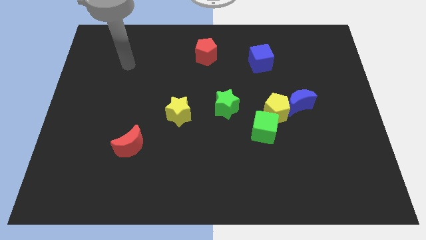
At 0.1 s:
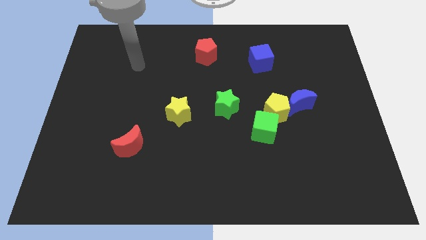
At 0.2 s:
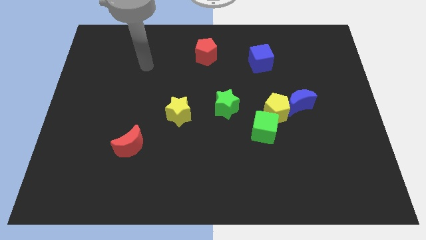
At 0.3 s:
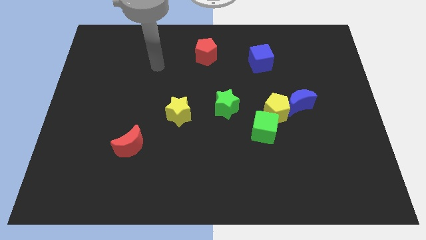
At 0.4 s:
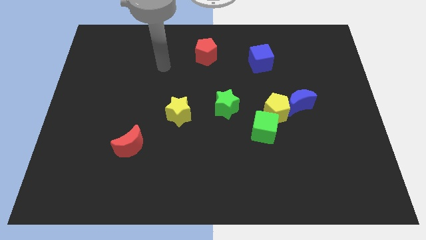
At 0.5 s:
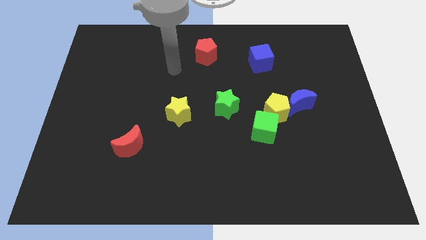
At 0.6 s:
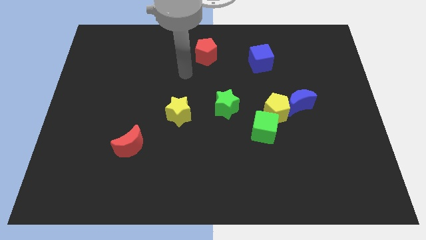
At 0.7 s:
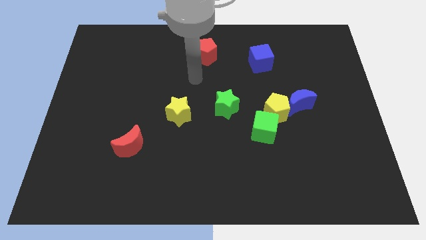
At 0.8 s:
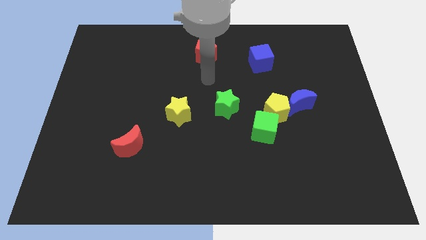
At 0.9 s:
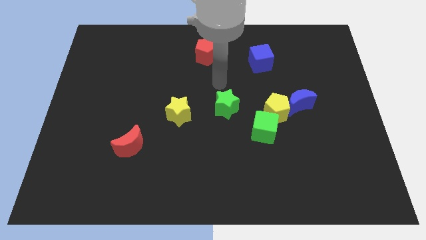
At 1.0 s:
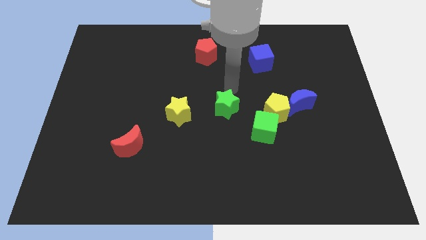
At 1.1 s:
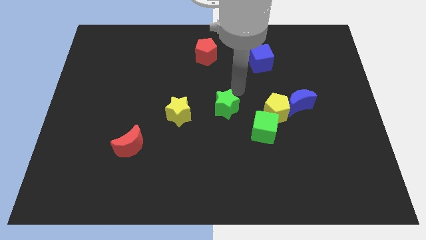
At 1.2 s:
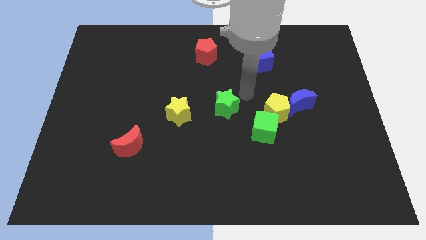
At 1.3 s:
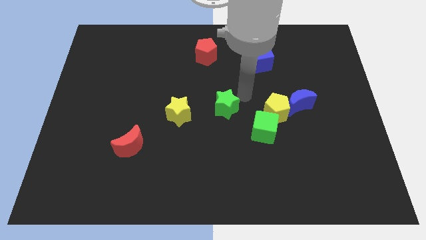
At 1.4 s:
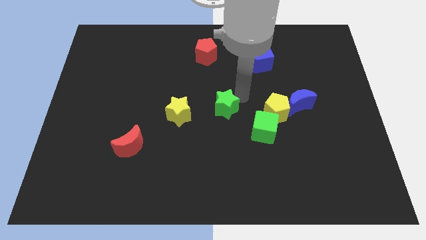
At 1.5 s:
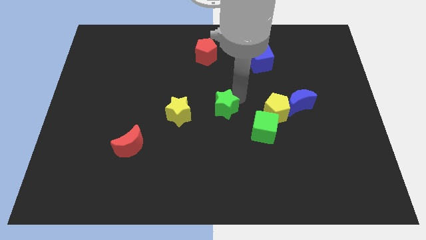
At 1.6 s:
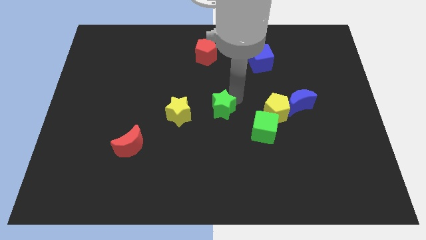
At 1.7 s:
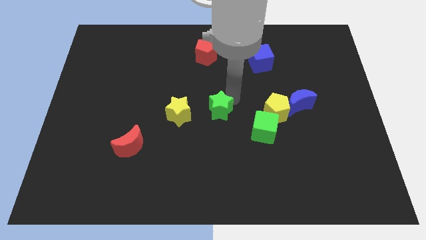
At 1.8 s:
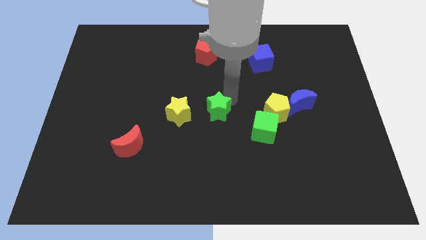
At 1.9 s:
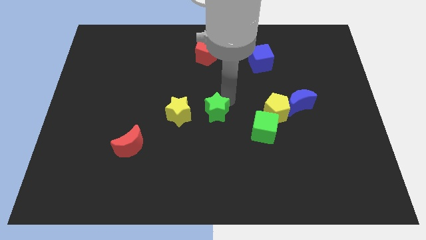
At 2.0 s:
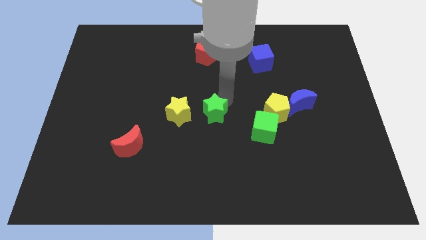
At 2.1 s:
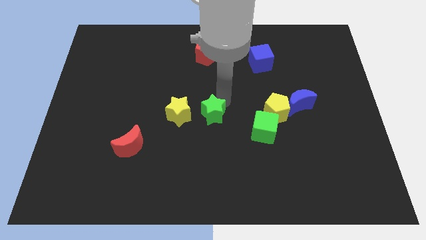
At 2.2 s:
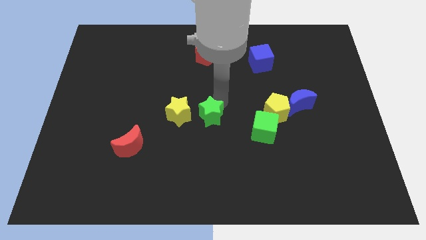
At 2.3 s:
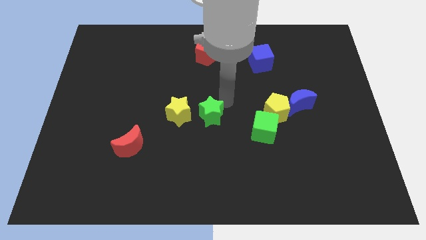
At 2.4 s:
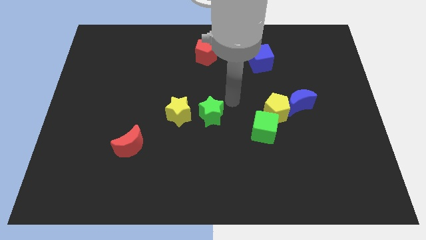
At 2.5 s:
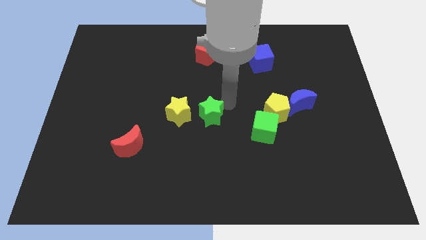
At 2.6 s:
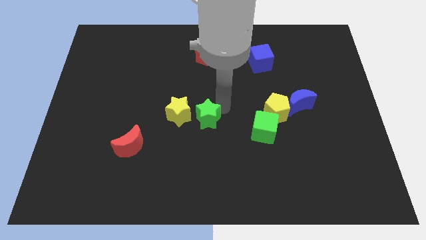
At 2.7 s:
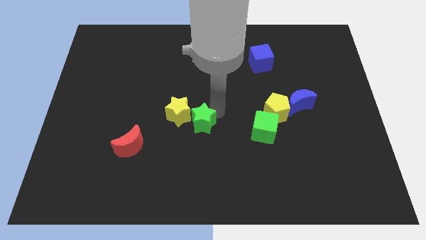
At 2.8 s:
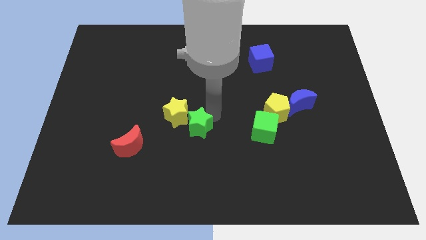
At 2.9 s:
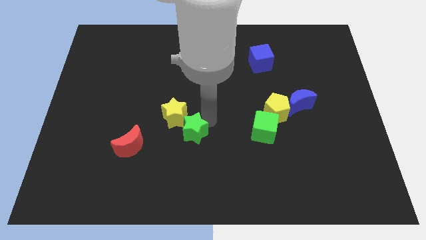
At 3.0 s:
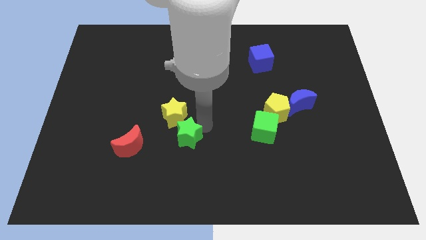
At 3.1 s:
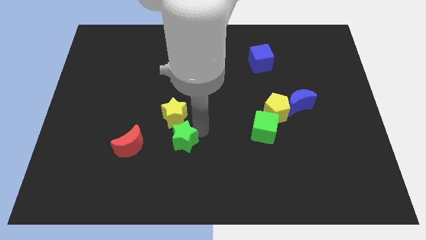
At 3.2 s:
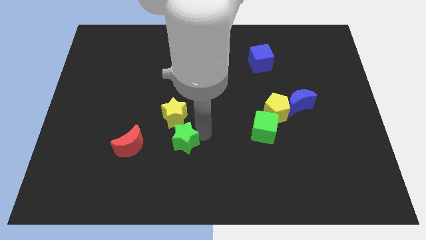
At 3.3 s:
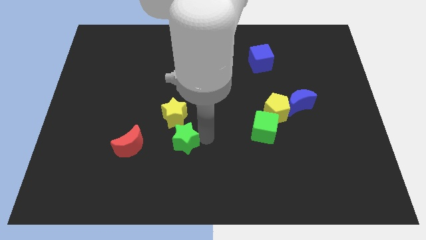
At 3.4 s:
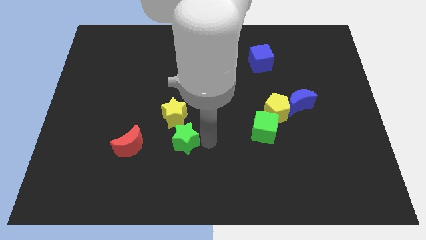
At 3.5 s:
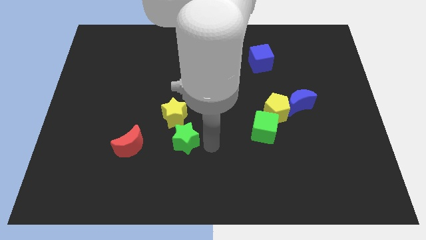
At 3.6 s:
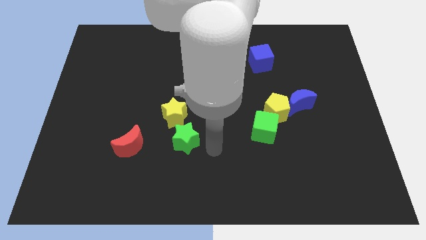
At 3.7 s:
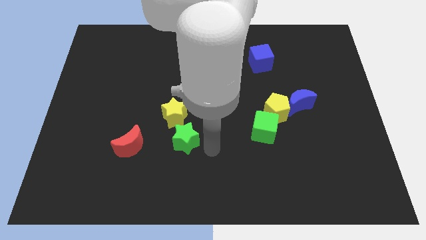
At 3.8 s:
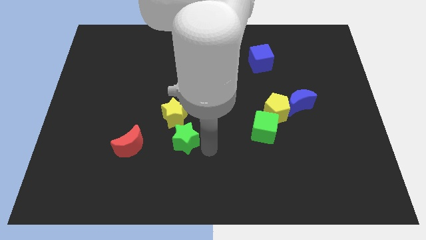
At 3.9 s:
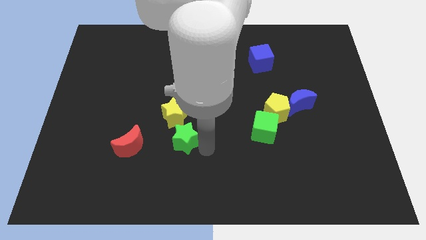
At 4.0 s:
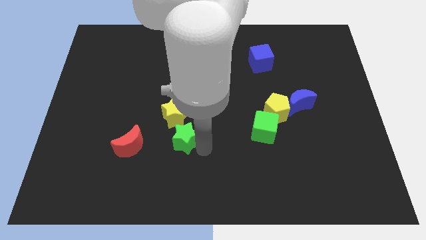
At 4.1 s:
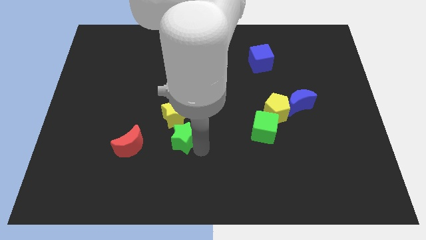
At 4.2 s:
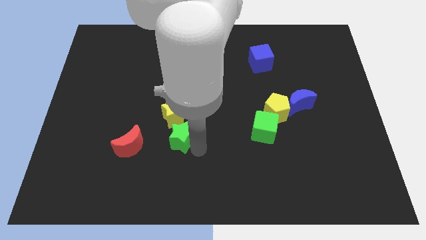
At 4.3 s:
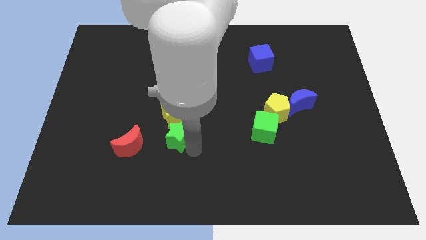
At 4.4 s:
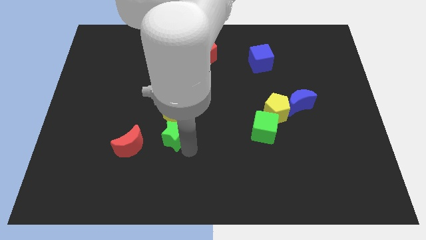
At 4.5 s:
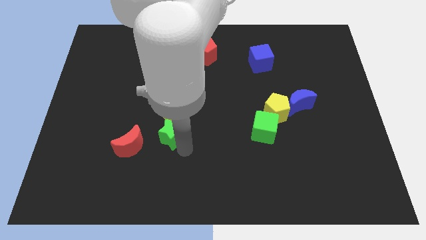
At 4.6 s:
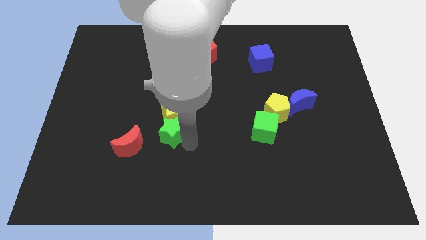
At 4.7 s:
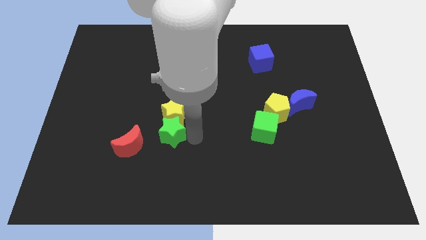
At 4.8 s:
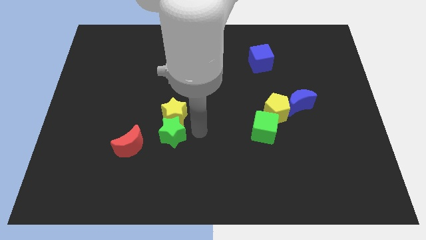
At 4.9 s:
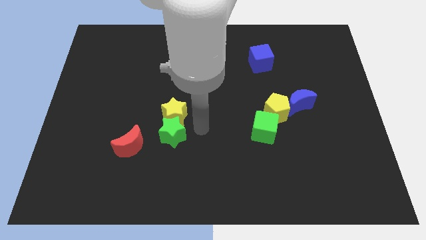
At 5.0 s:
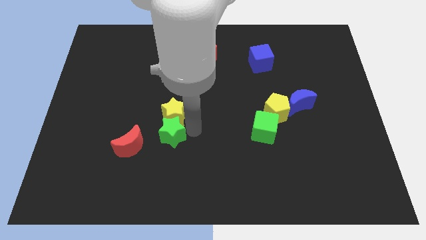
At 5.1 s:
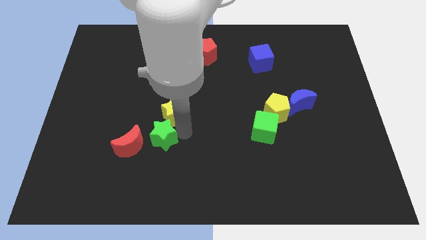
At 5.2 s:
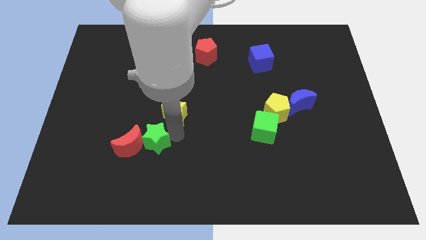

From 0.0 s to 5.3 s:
slide the green star next to the red moon

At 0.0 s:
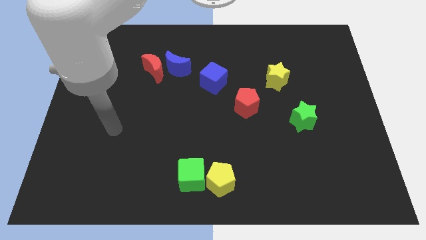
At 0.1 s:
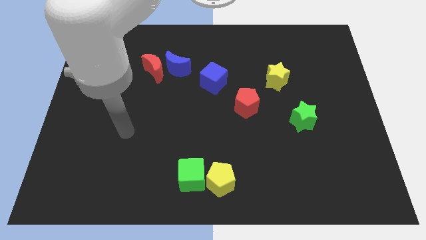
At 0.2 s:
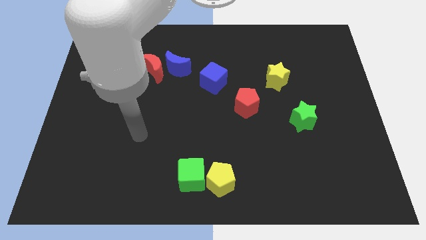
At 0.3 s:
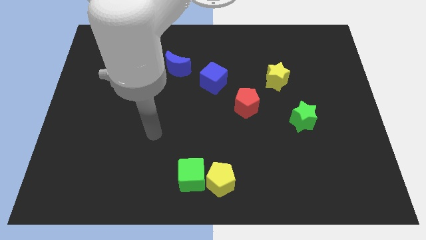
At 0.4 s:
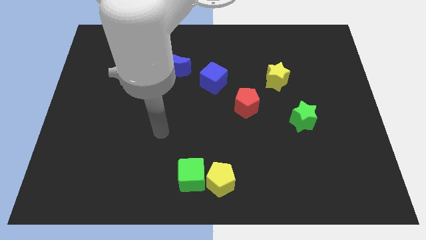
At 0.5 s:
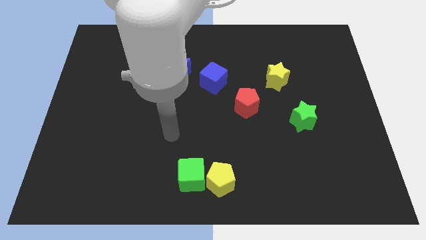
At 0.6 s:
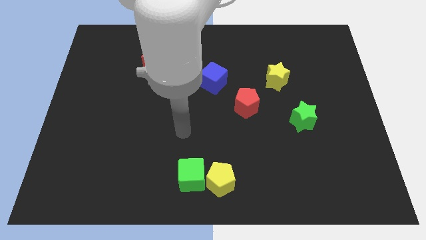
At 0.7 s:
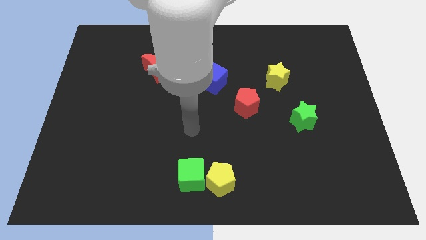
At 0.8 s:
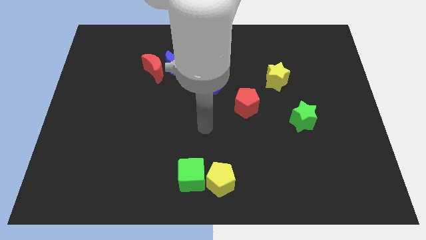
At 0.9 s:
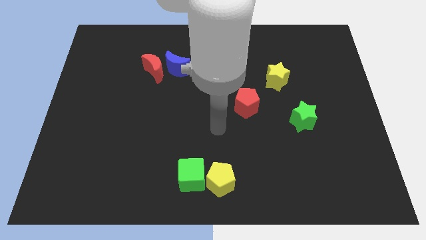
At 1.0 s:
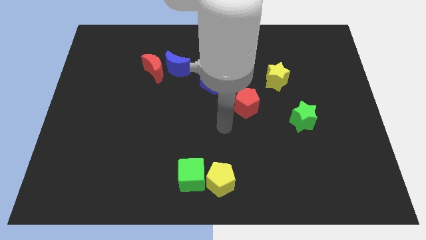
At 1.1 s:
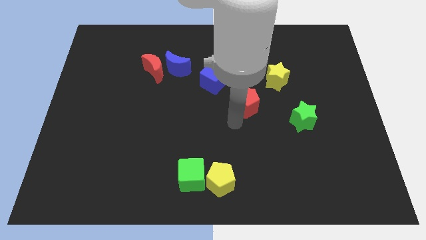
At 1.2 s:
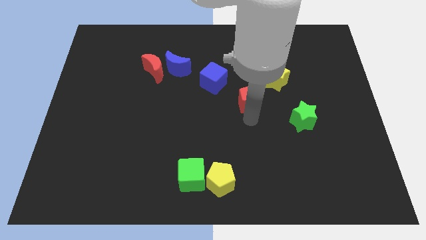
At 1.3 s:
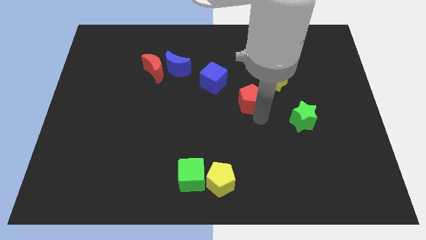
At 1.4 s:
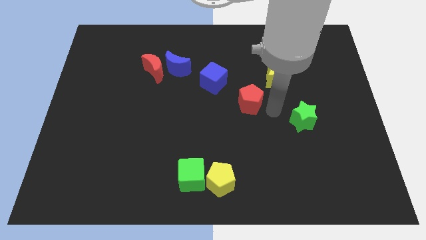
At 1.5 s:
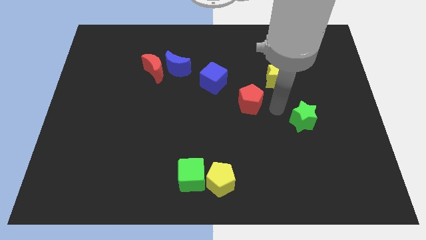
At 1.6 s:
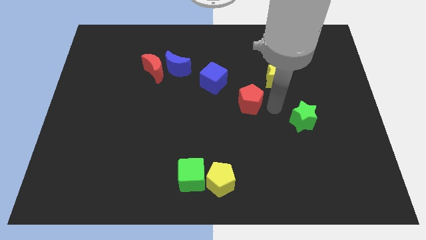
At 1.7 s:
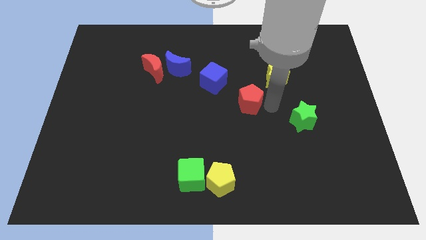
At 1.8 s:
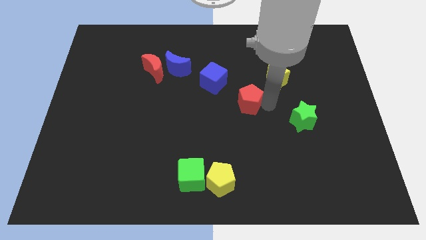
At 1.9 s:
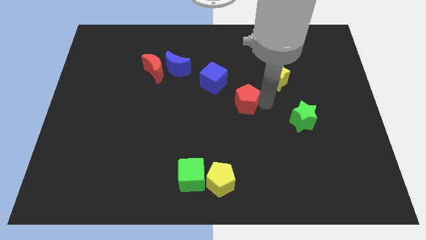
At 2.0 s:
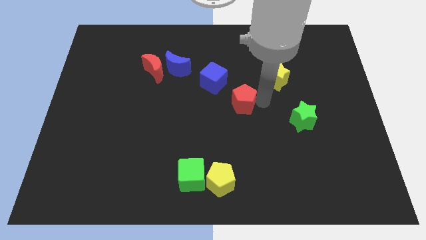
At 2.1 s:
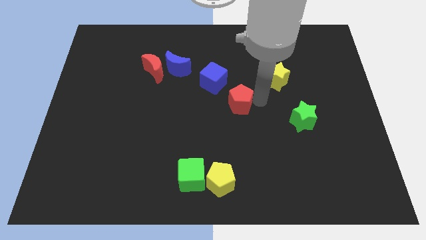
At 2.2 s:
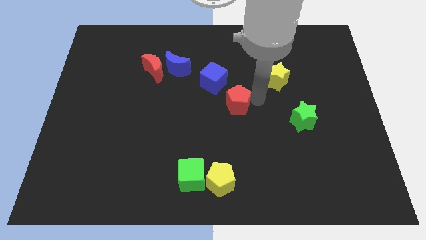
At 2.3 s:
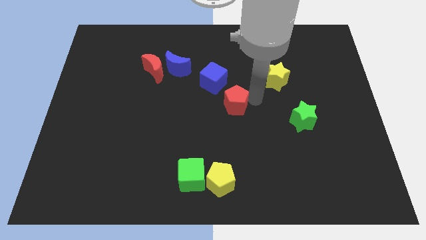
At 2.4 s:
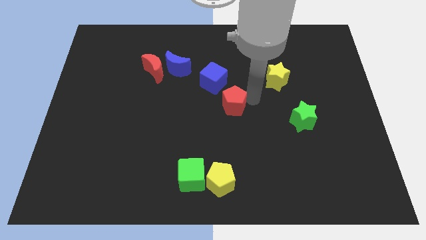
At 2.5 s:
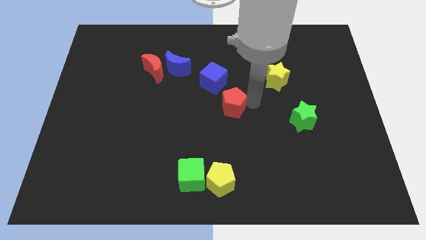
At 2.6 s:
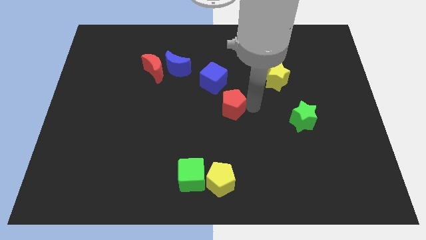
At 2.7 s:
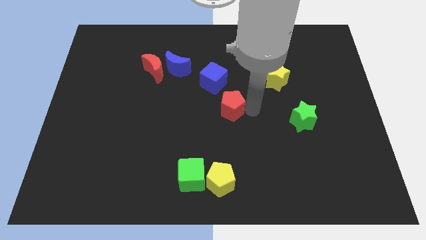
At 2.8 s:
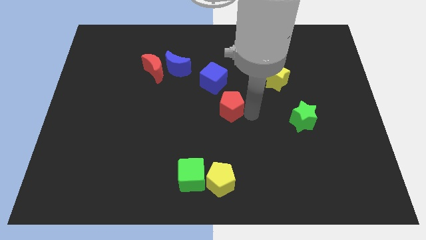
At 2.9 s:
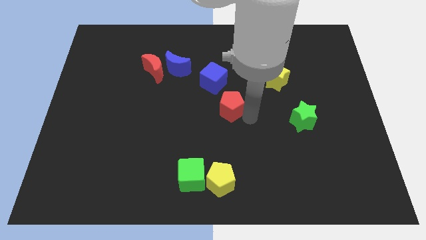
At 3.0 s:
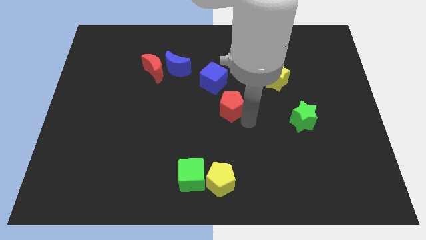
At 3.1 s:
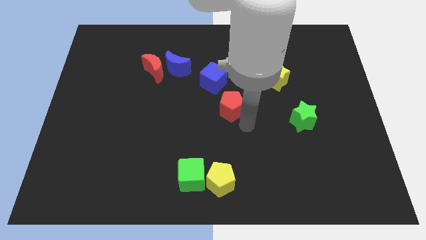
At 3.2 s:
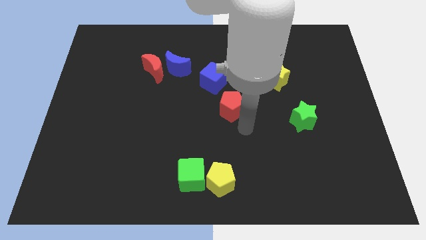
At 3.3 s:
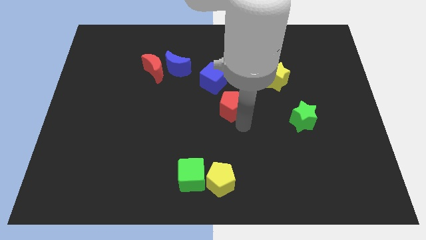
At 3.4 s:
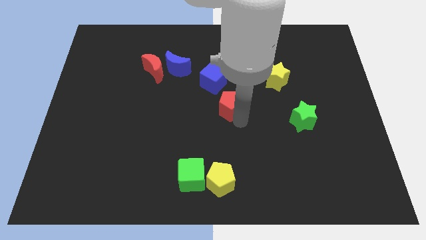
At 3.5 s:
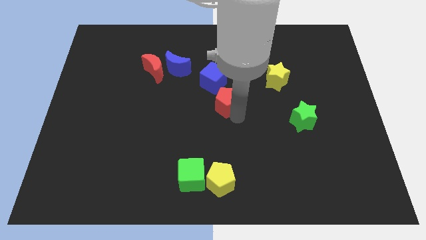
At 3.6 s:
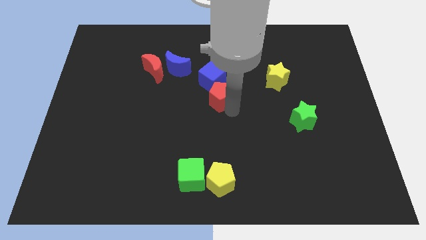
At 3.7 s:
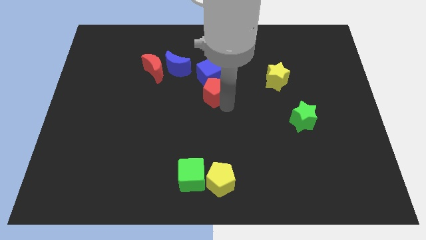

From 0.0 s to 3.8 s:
move the red pentagon towards the blue cube
